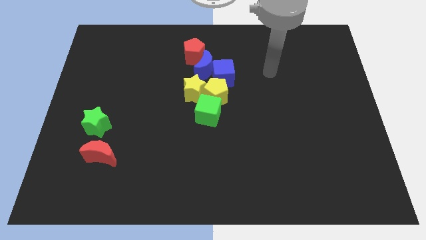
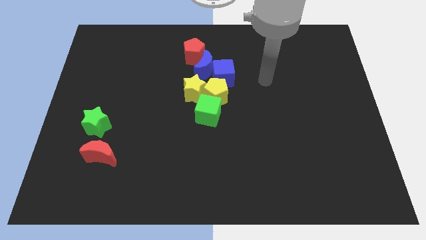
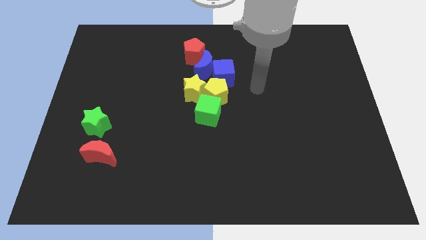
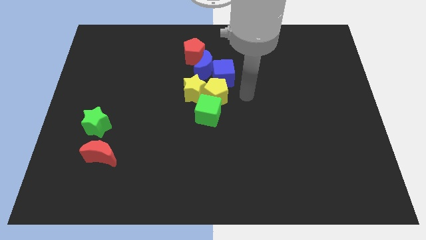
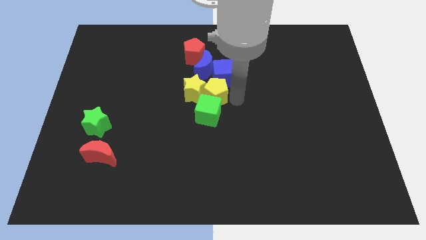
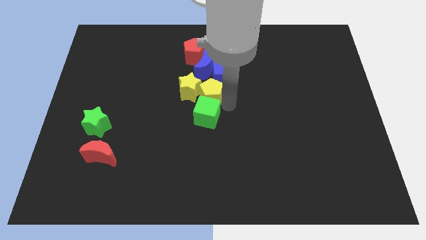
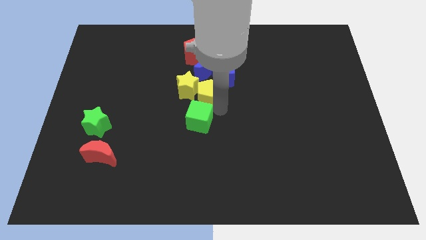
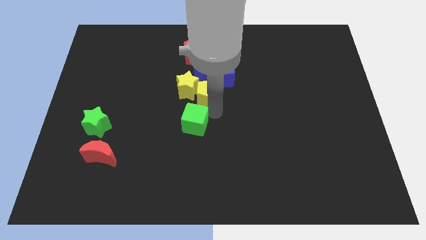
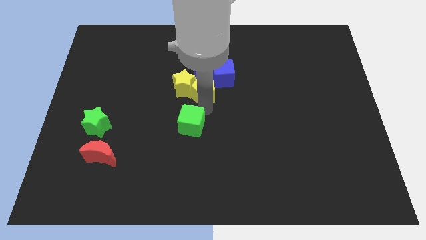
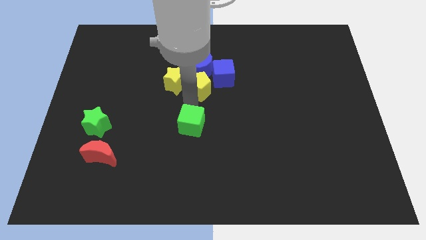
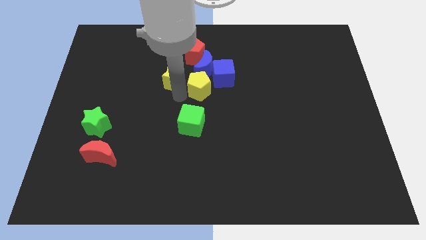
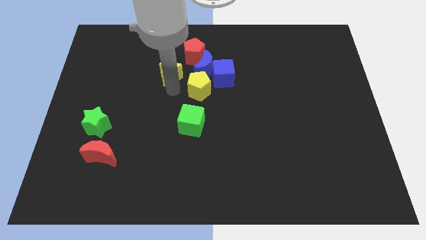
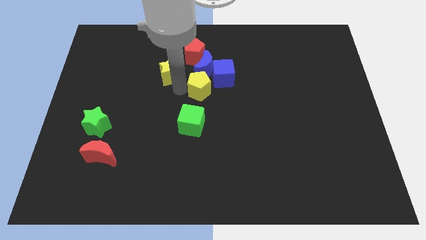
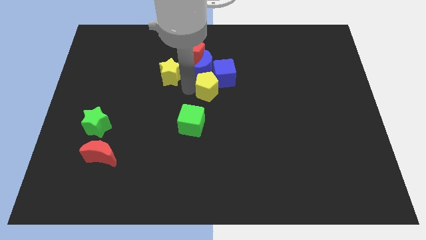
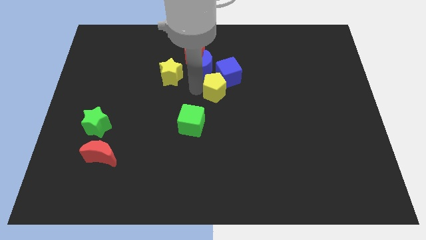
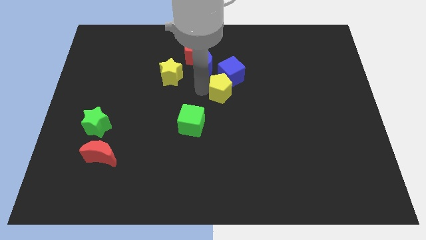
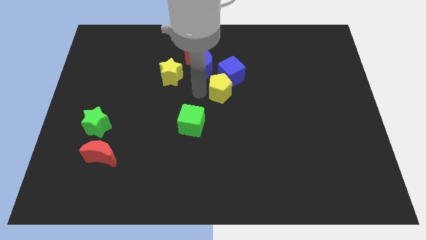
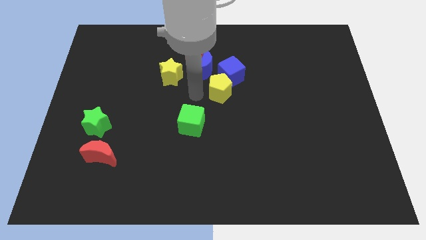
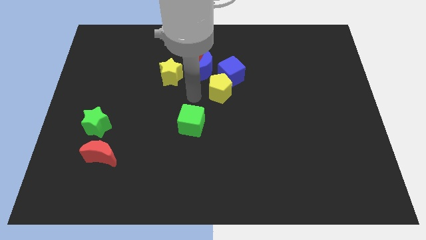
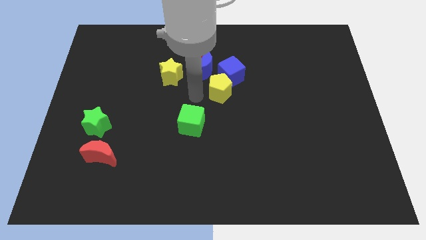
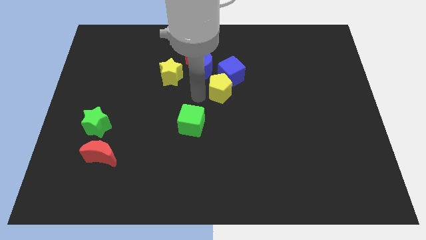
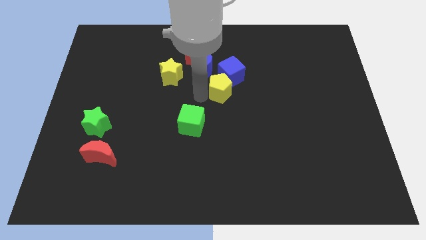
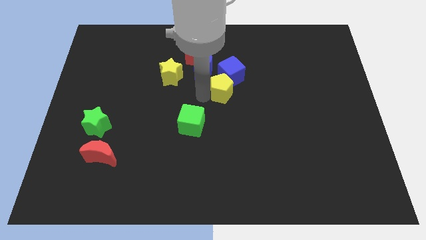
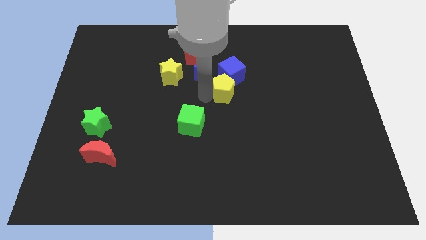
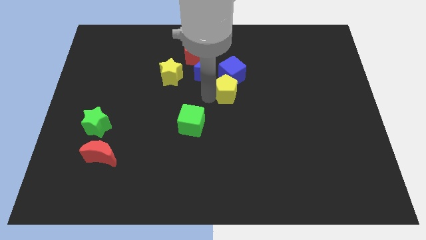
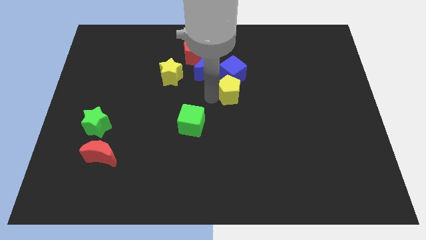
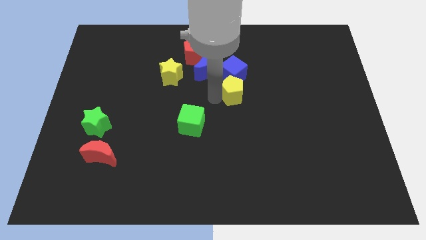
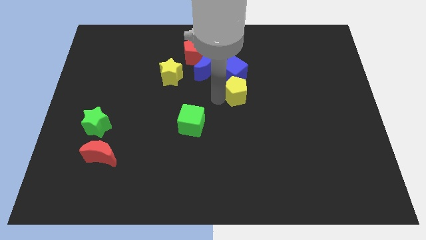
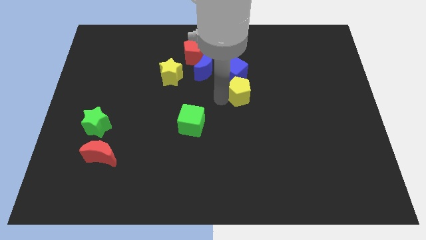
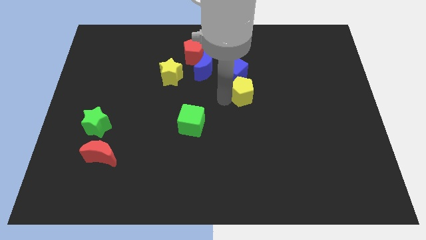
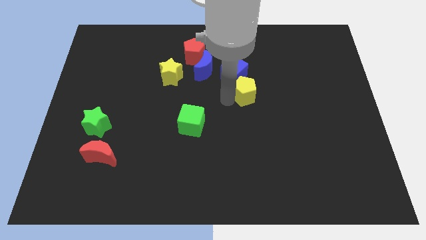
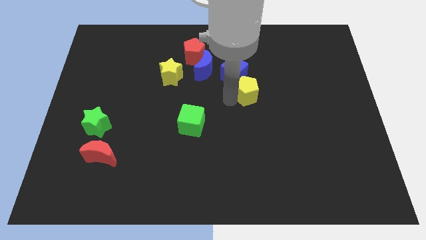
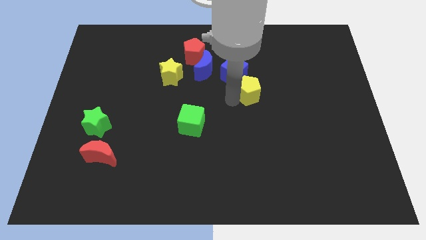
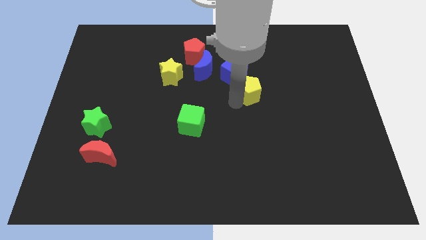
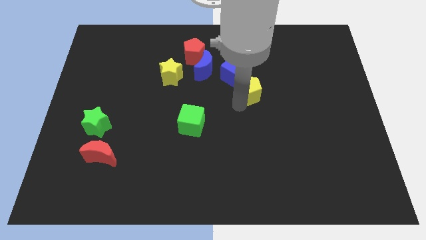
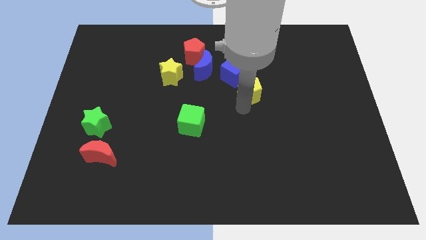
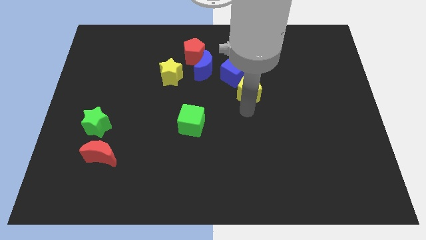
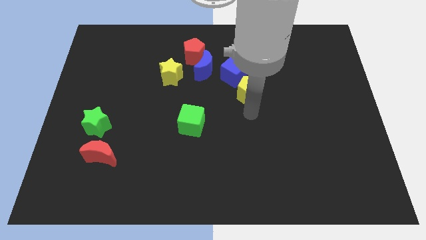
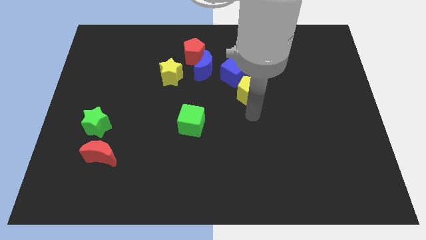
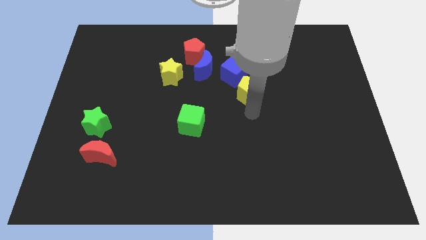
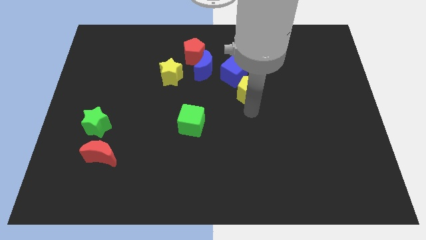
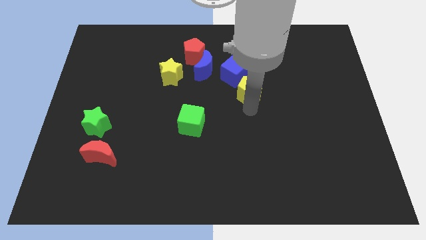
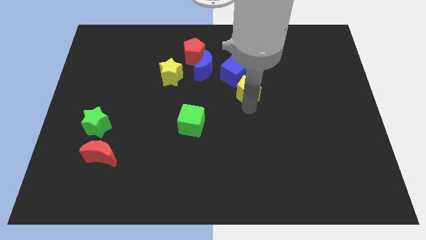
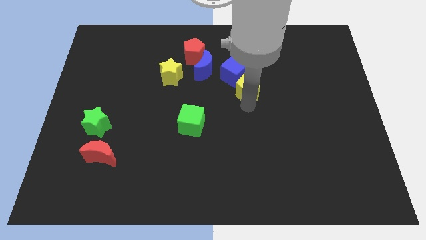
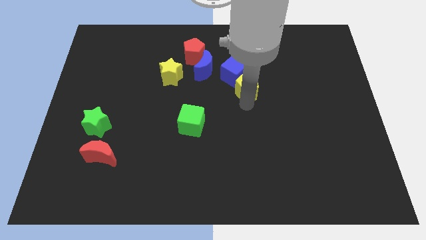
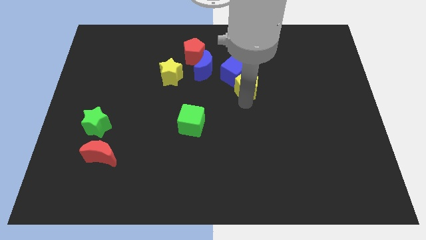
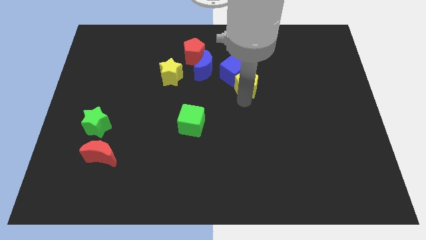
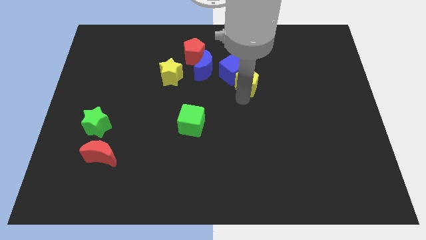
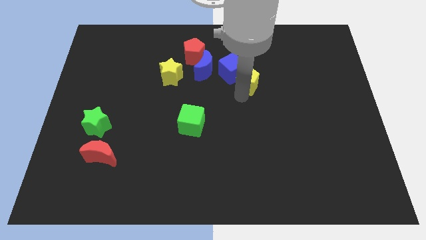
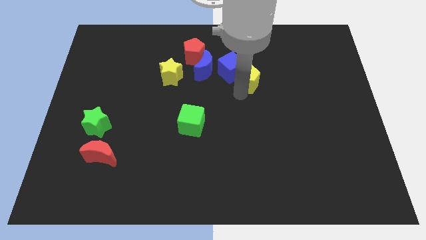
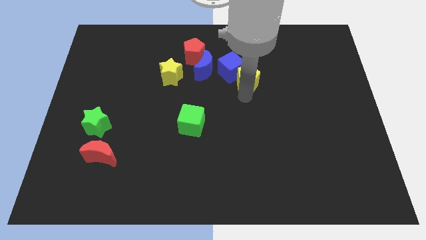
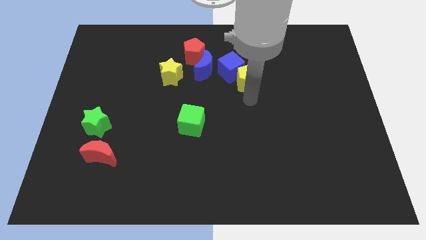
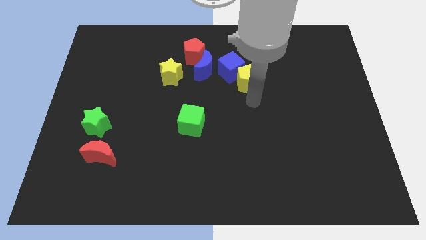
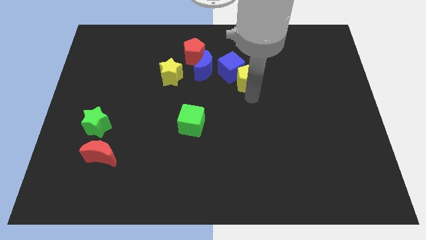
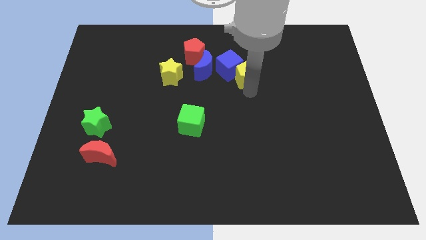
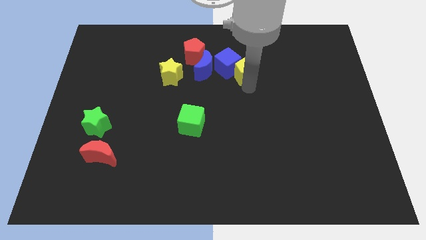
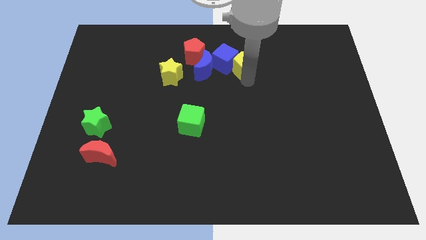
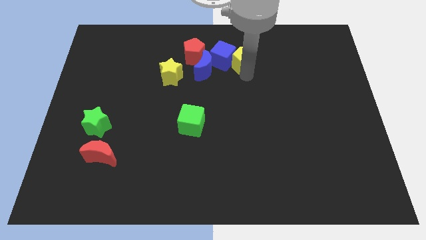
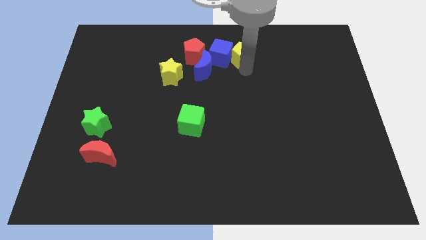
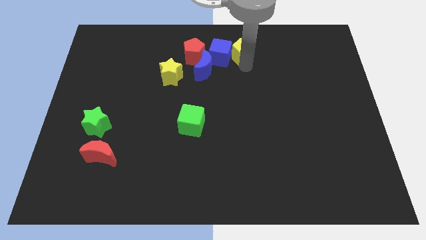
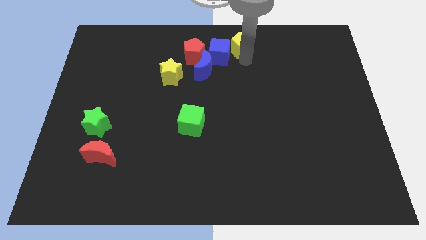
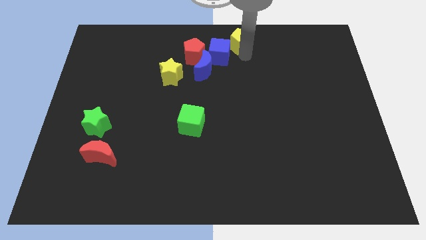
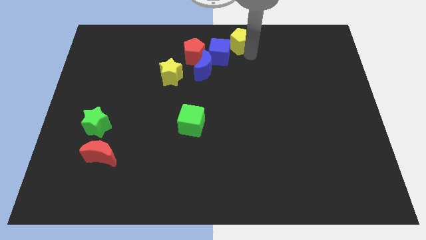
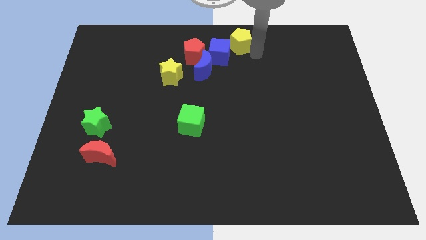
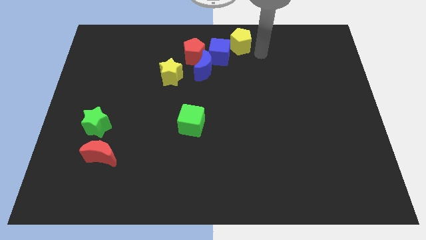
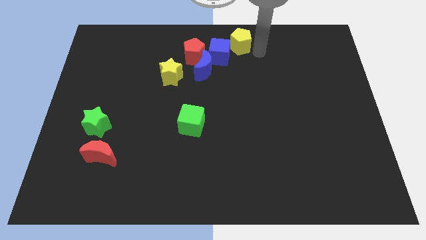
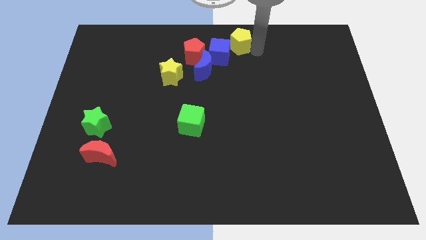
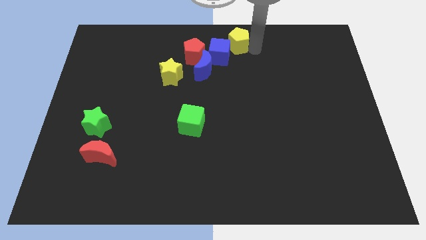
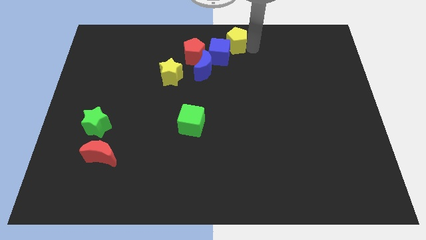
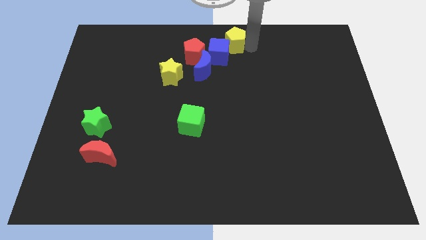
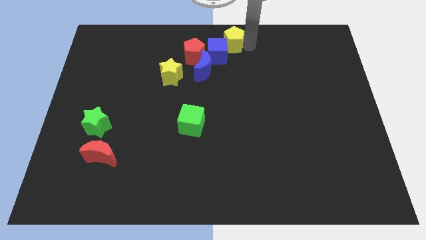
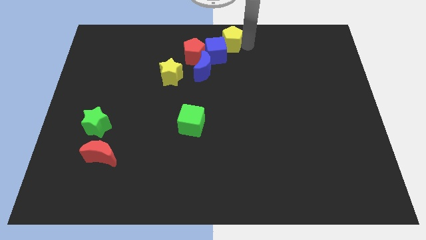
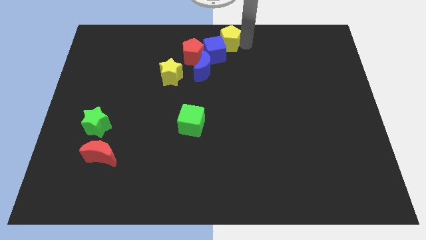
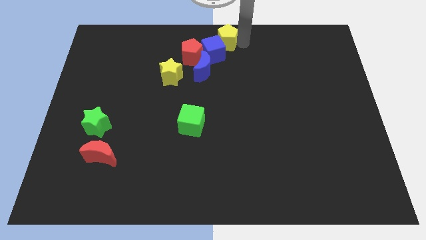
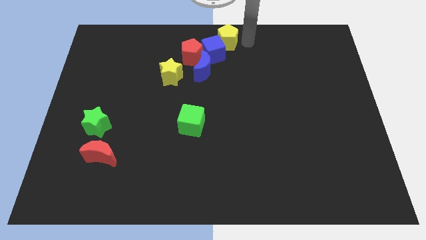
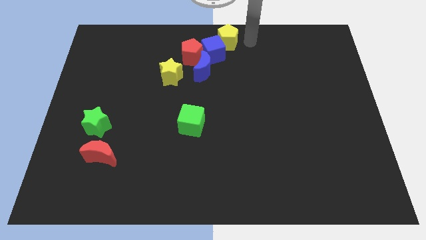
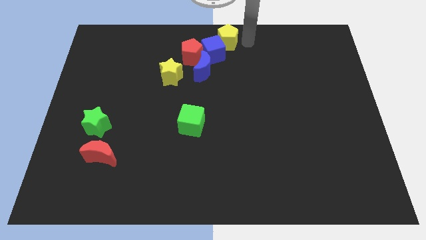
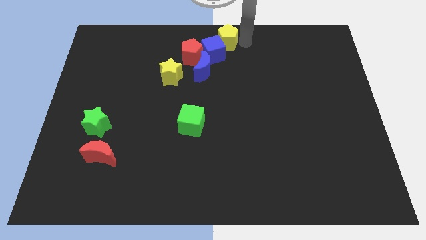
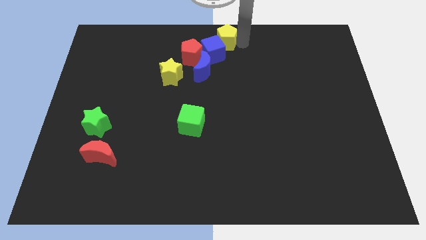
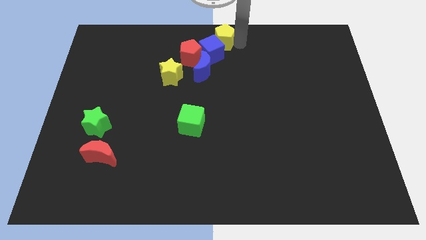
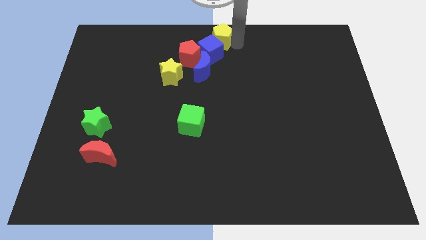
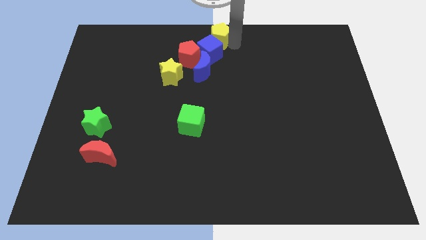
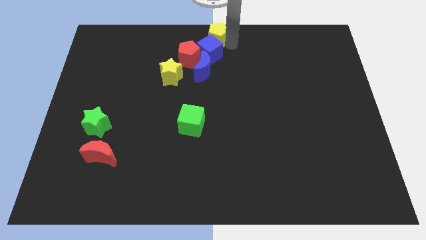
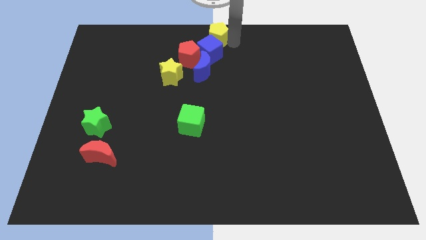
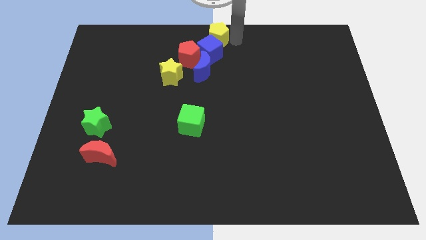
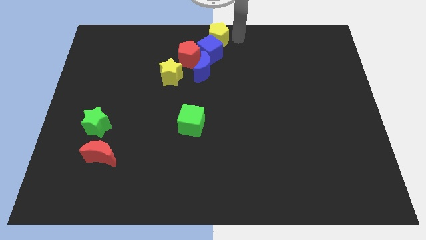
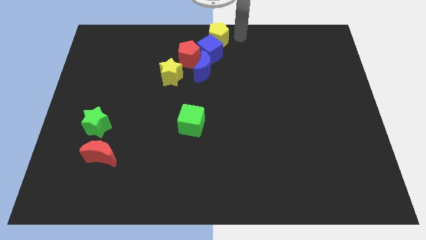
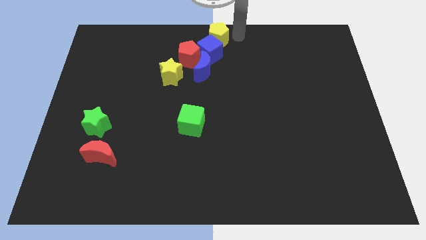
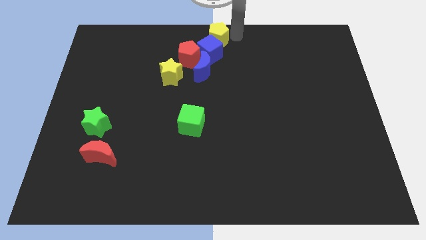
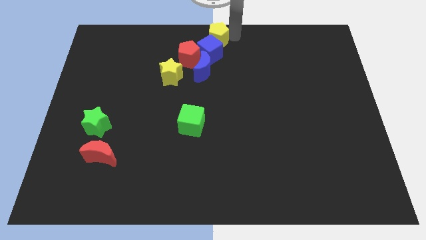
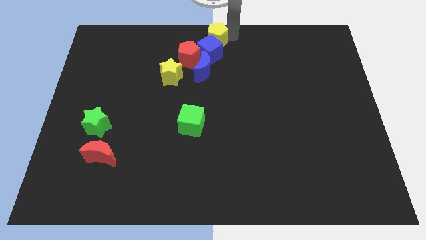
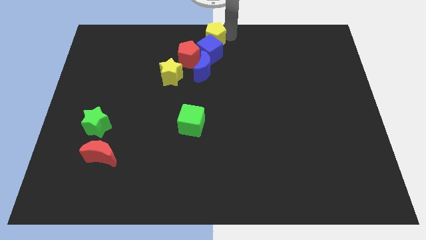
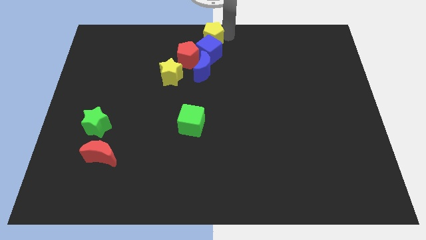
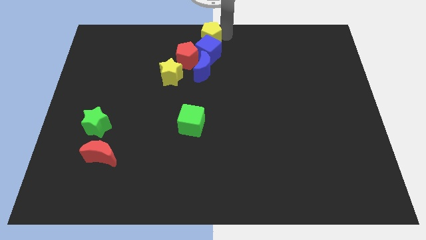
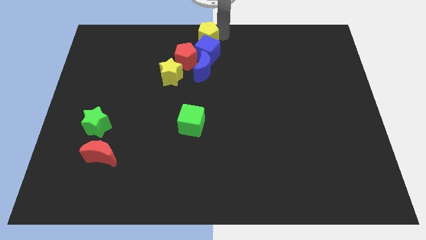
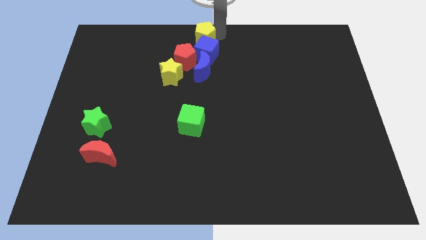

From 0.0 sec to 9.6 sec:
slightly slide the yellow pentagon up and then left
